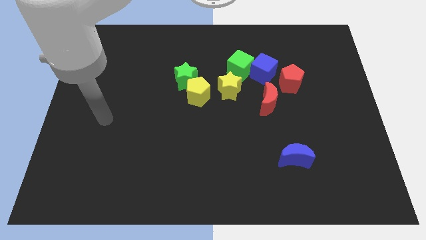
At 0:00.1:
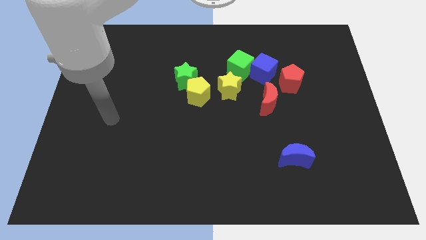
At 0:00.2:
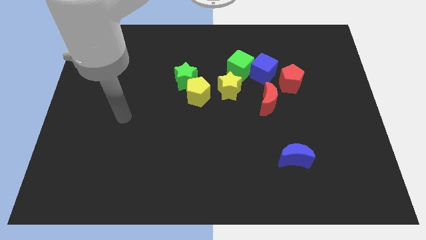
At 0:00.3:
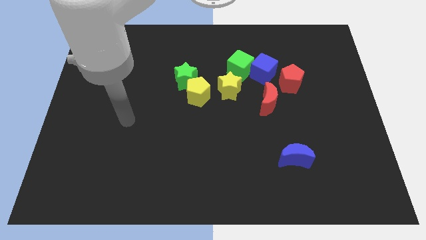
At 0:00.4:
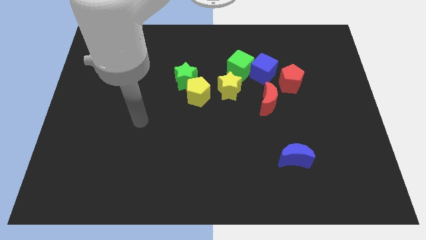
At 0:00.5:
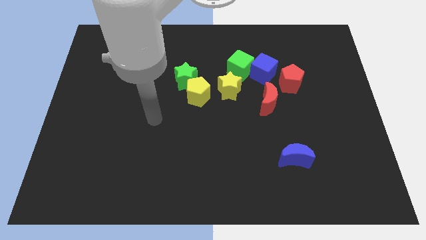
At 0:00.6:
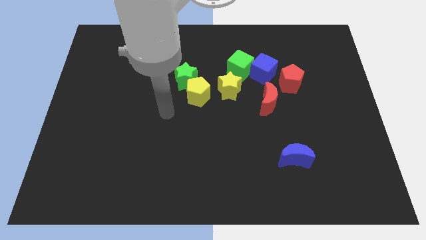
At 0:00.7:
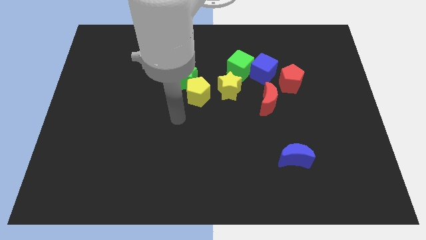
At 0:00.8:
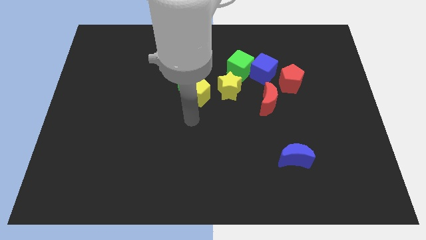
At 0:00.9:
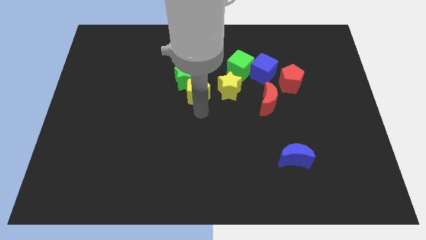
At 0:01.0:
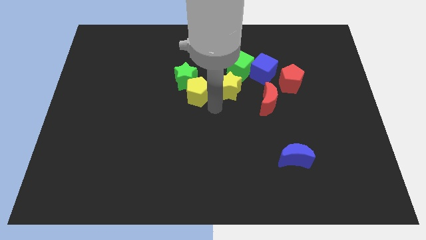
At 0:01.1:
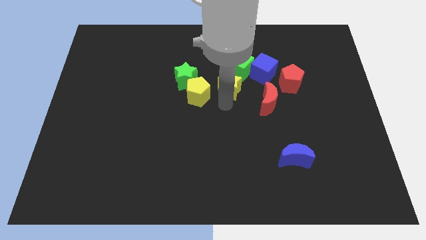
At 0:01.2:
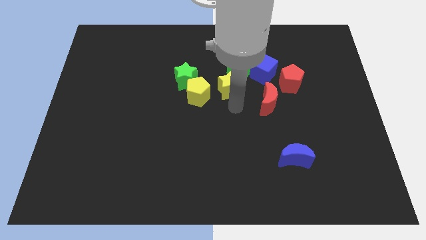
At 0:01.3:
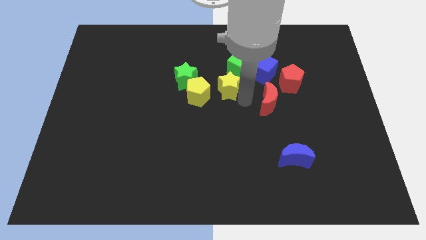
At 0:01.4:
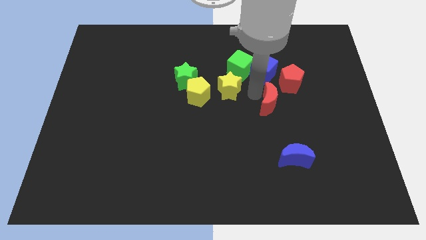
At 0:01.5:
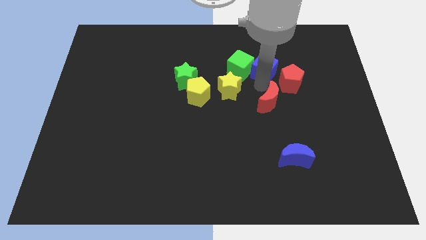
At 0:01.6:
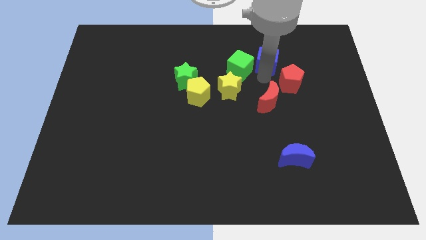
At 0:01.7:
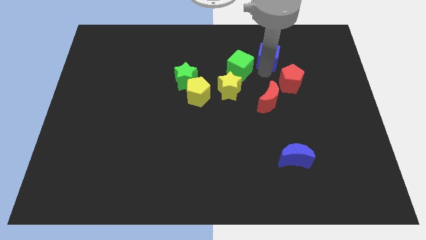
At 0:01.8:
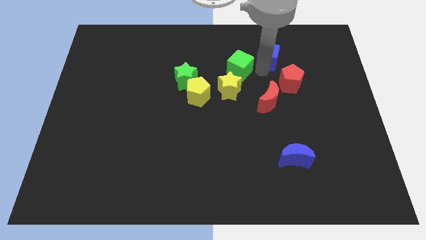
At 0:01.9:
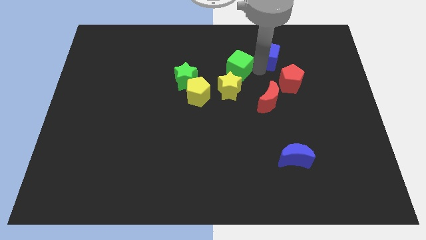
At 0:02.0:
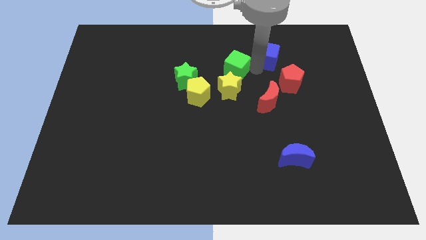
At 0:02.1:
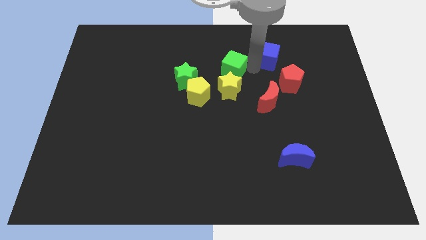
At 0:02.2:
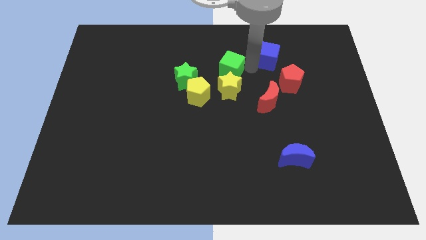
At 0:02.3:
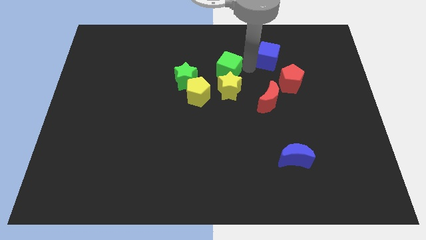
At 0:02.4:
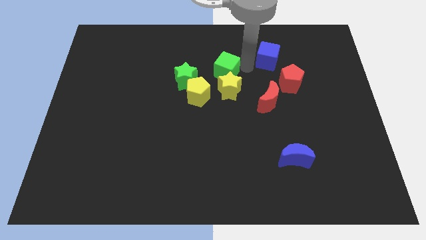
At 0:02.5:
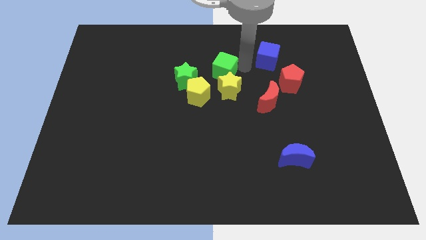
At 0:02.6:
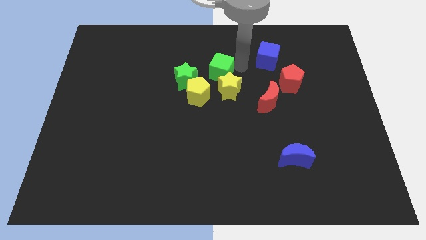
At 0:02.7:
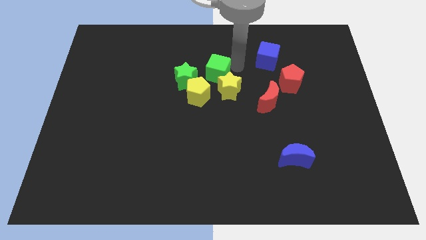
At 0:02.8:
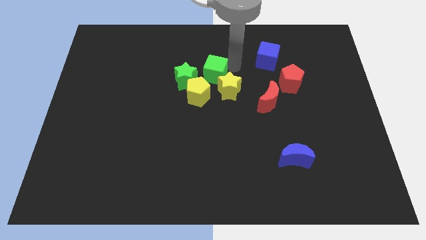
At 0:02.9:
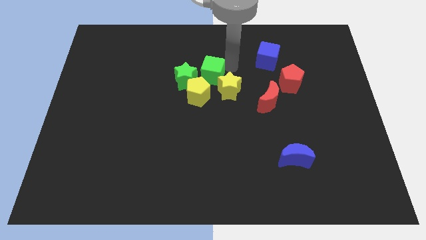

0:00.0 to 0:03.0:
slide the green cube to the left a bit

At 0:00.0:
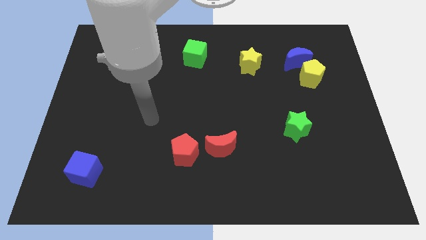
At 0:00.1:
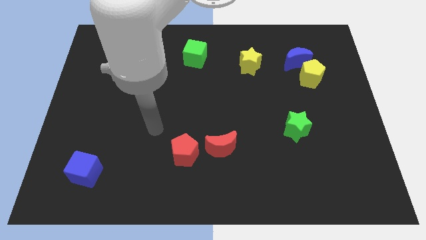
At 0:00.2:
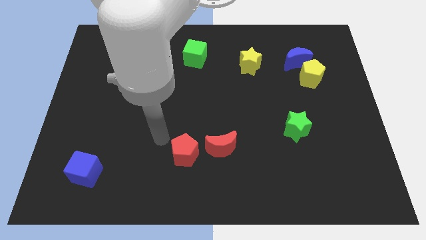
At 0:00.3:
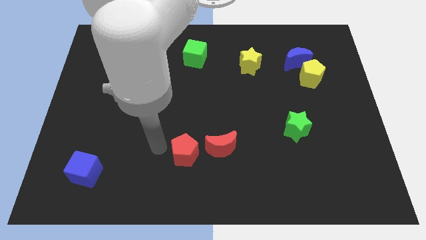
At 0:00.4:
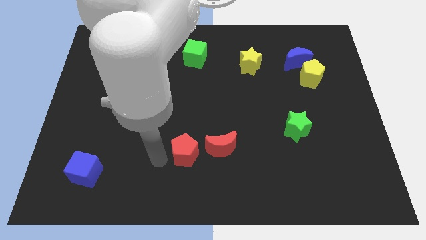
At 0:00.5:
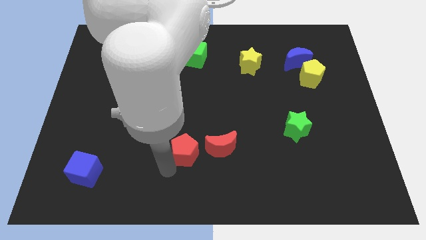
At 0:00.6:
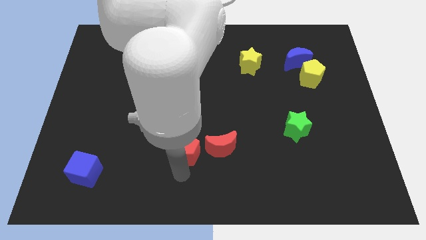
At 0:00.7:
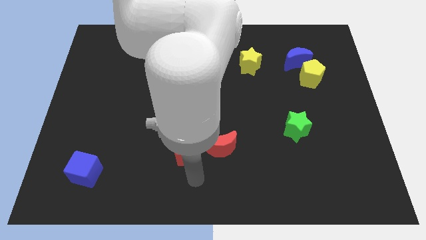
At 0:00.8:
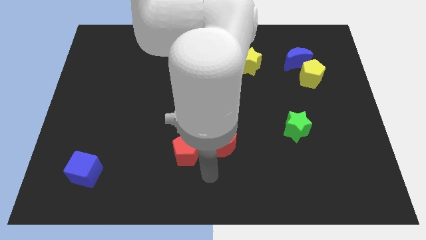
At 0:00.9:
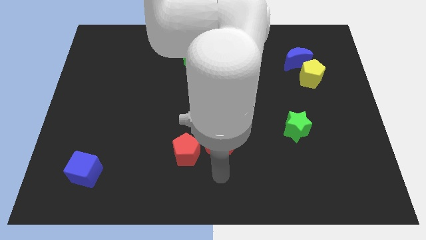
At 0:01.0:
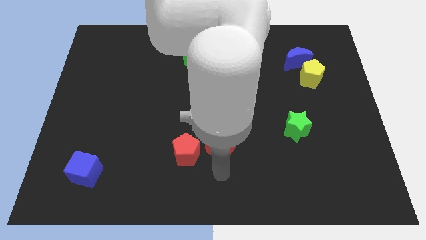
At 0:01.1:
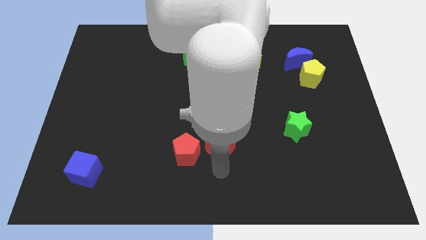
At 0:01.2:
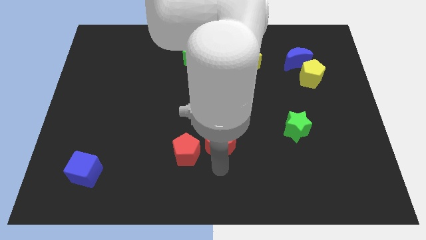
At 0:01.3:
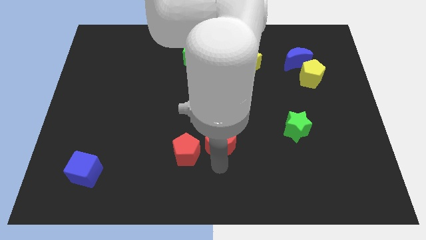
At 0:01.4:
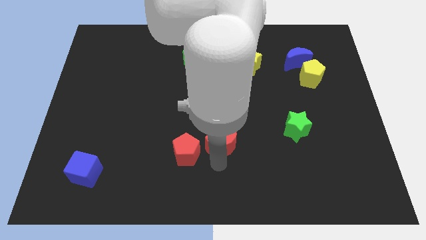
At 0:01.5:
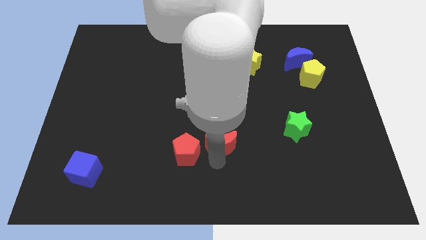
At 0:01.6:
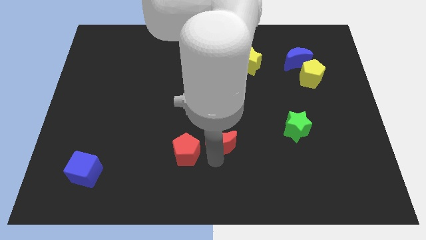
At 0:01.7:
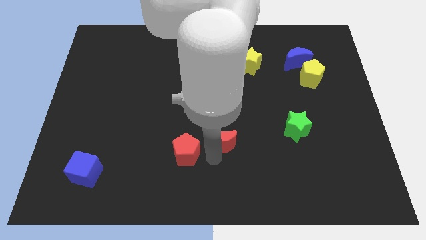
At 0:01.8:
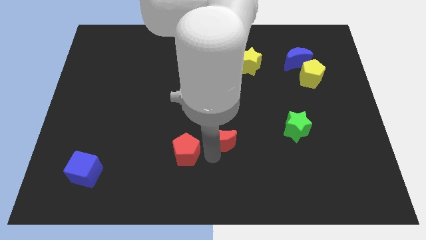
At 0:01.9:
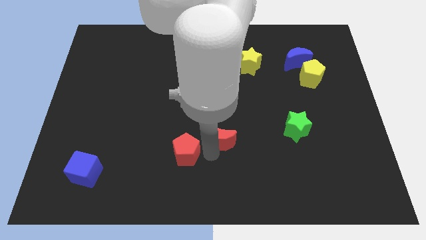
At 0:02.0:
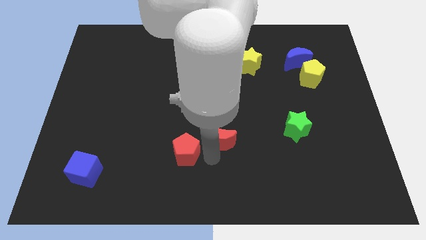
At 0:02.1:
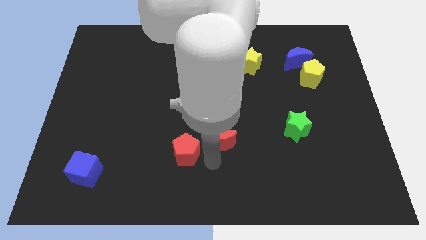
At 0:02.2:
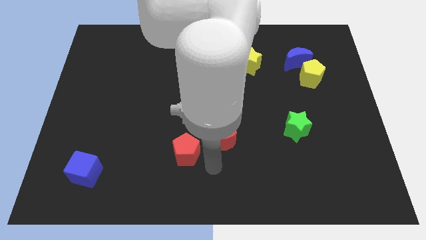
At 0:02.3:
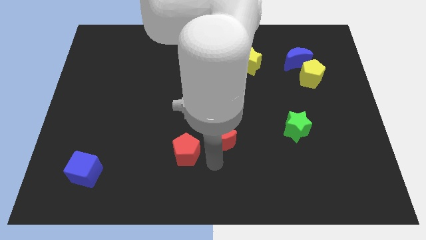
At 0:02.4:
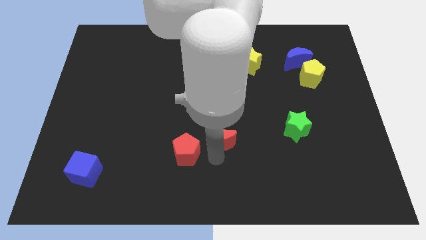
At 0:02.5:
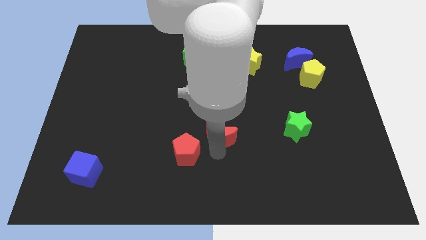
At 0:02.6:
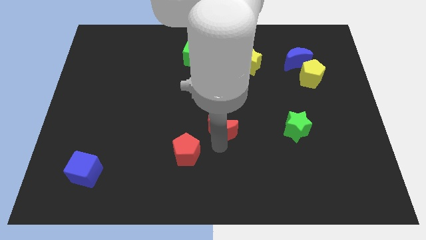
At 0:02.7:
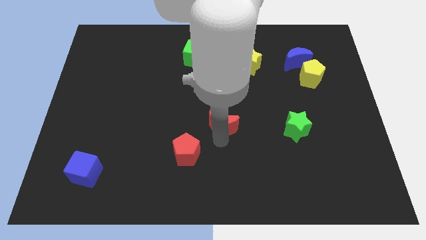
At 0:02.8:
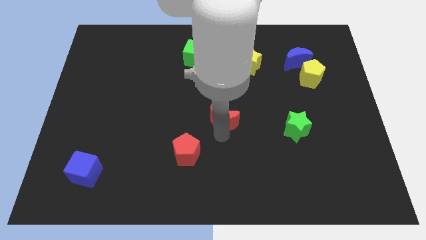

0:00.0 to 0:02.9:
push the red moon up a bit

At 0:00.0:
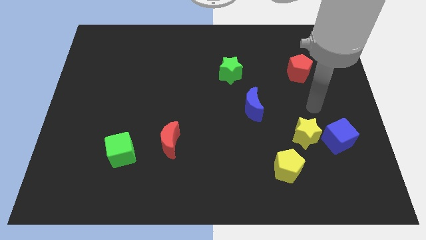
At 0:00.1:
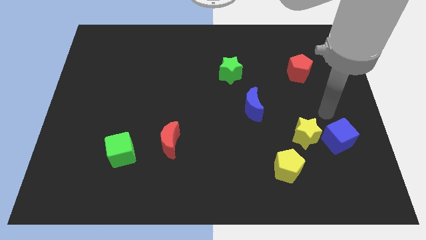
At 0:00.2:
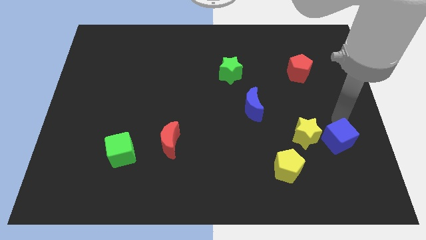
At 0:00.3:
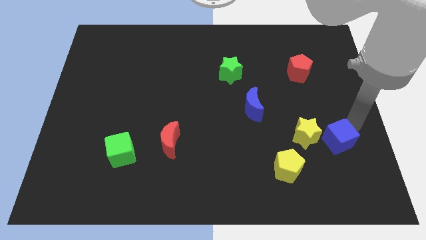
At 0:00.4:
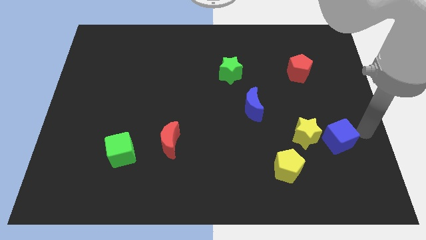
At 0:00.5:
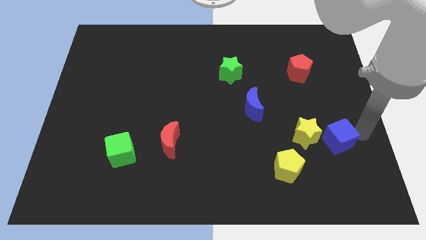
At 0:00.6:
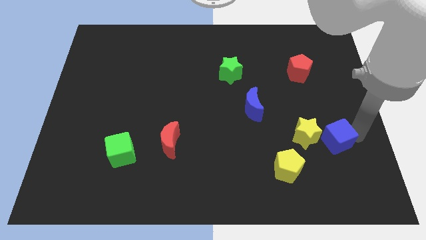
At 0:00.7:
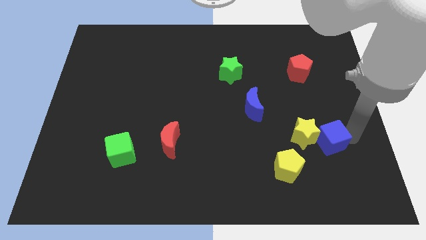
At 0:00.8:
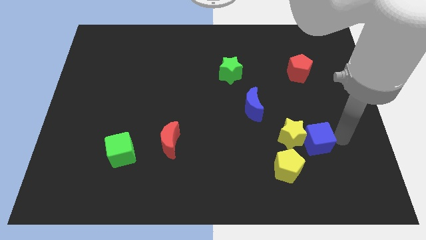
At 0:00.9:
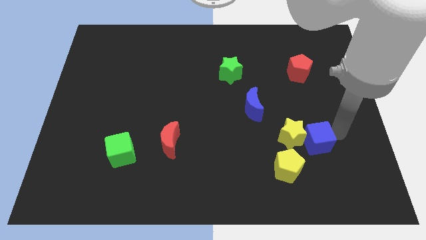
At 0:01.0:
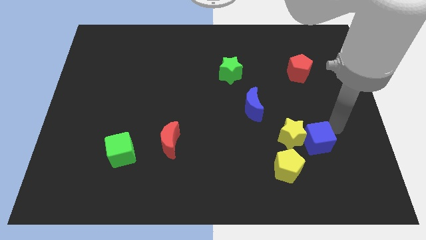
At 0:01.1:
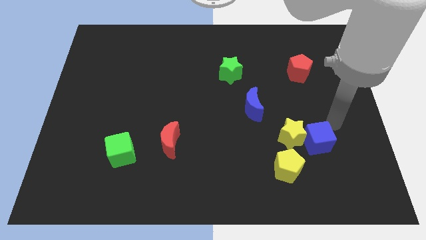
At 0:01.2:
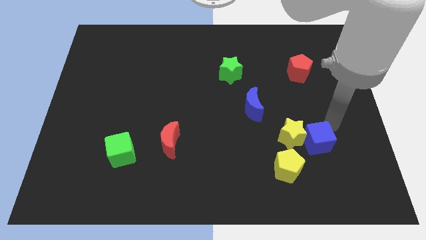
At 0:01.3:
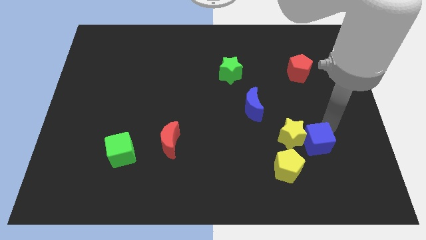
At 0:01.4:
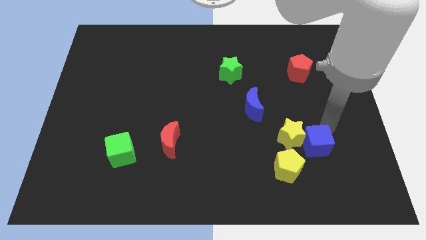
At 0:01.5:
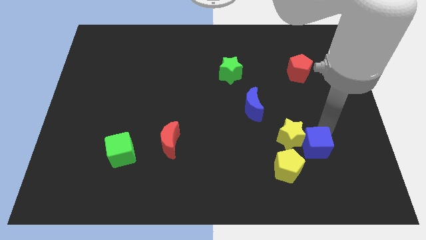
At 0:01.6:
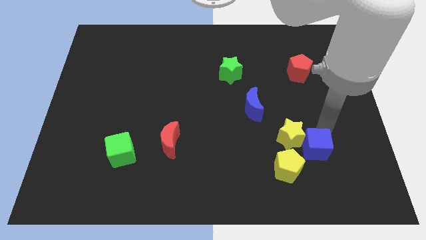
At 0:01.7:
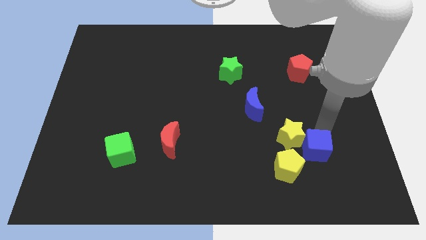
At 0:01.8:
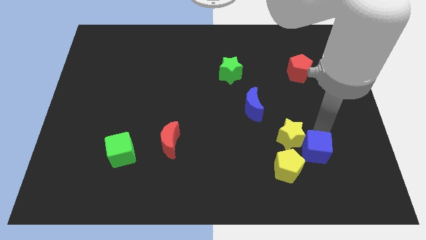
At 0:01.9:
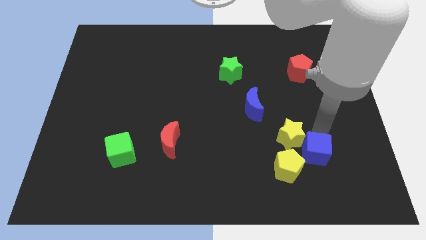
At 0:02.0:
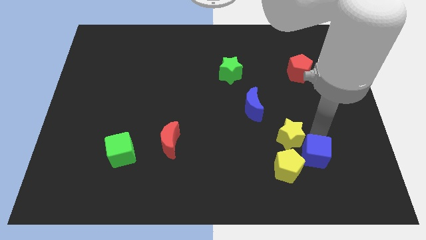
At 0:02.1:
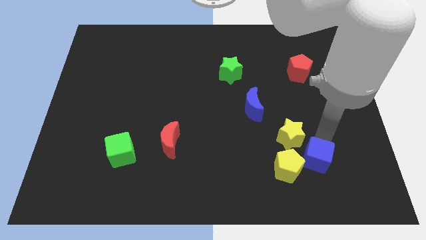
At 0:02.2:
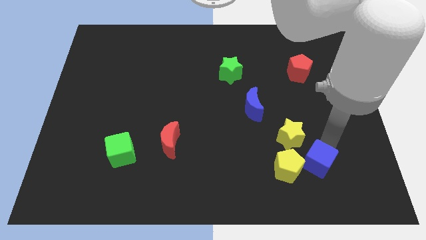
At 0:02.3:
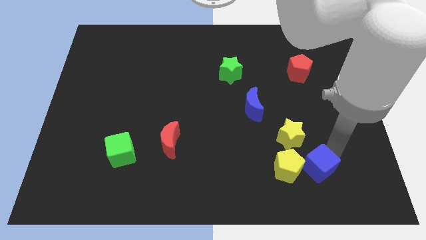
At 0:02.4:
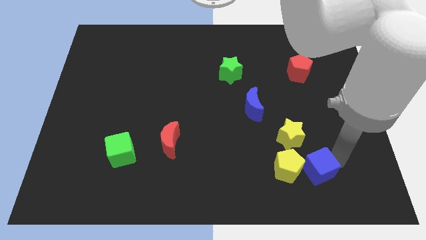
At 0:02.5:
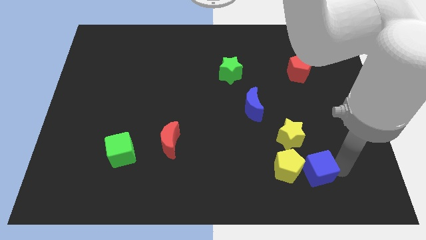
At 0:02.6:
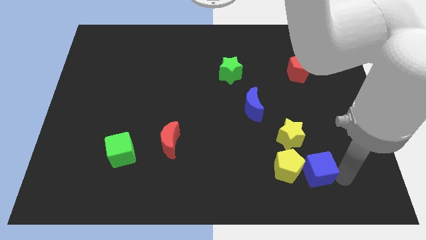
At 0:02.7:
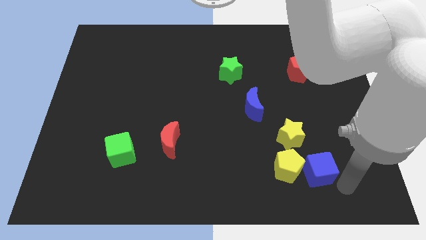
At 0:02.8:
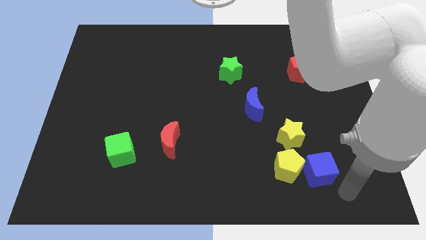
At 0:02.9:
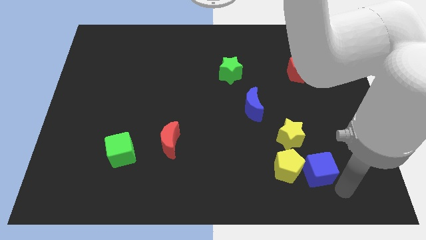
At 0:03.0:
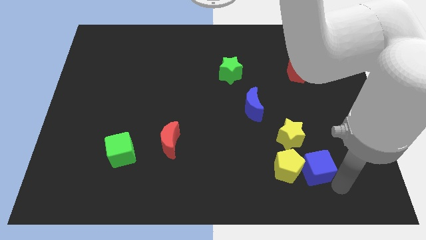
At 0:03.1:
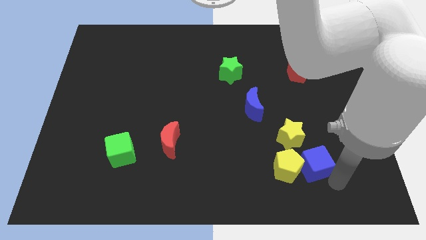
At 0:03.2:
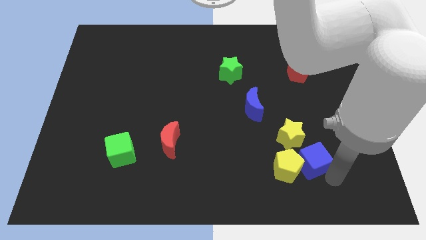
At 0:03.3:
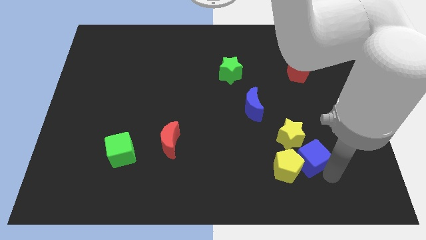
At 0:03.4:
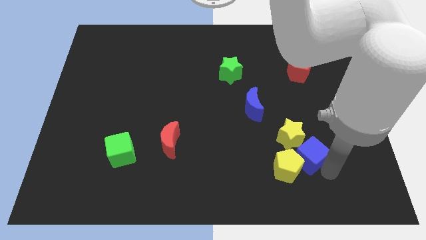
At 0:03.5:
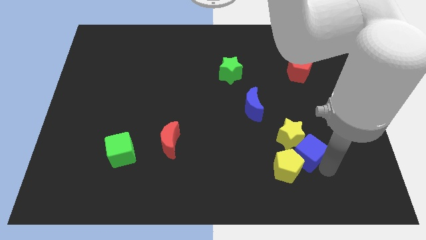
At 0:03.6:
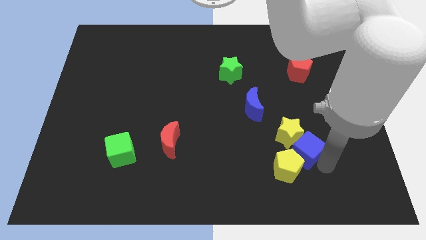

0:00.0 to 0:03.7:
move the blue cube a little to the left
